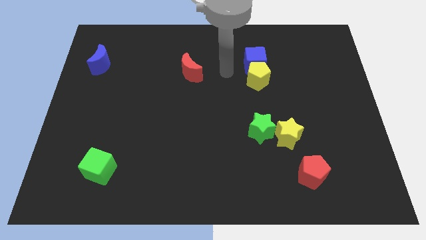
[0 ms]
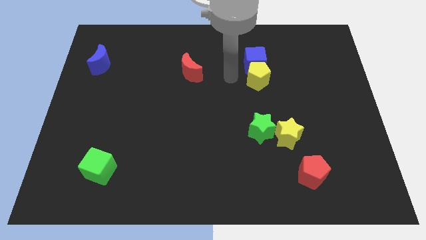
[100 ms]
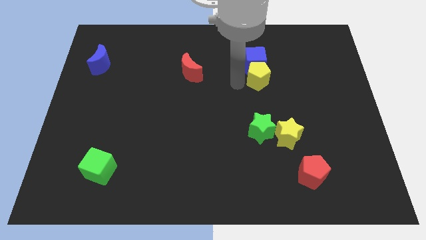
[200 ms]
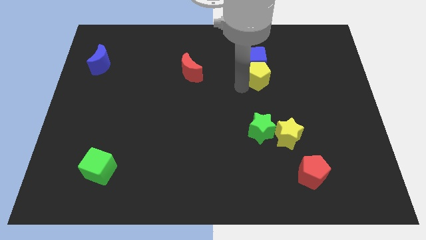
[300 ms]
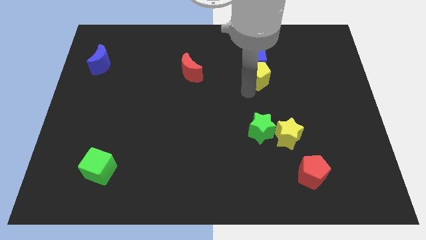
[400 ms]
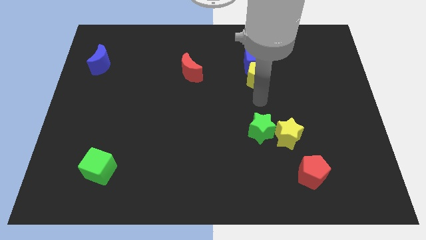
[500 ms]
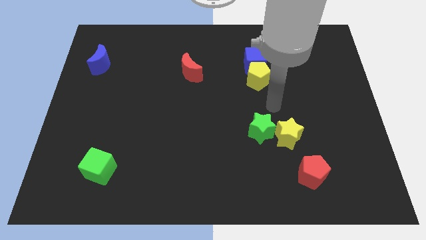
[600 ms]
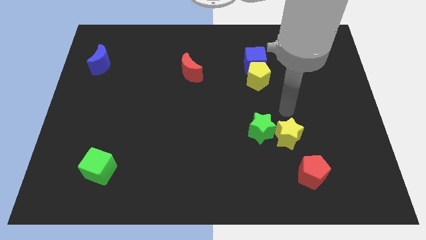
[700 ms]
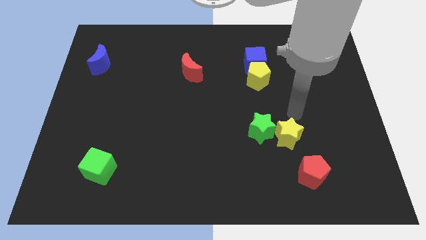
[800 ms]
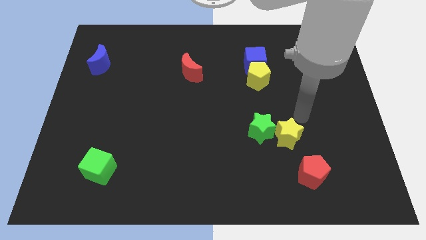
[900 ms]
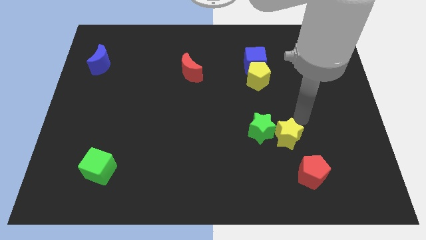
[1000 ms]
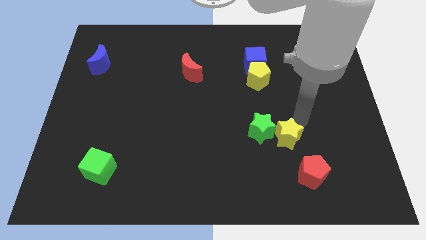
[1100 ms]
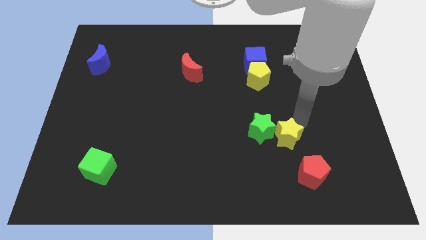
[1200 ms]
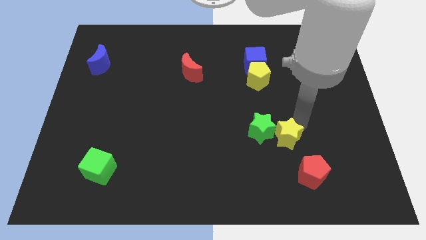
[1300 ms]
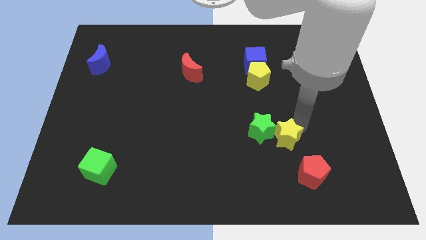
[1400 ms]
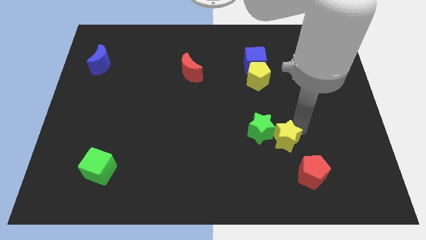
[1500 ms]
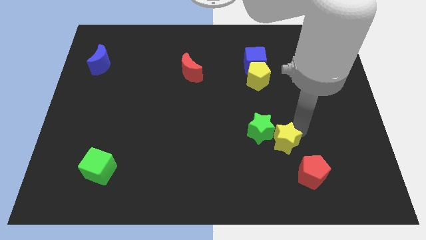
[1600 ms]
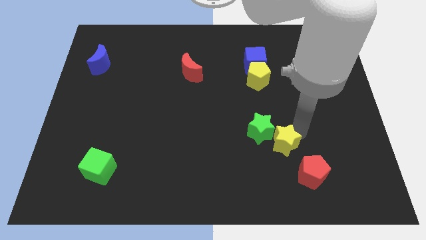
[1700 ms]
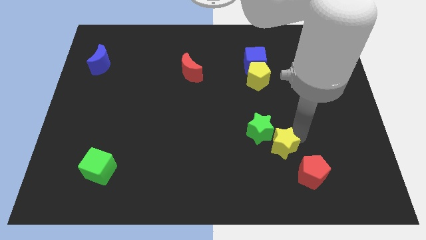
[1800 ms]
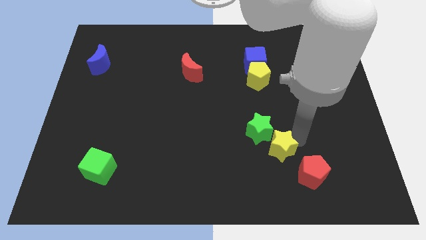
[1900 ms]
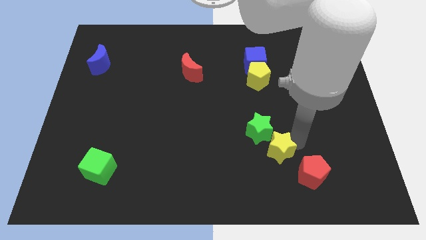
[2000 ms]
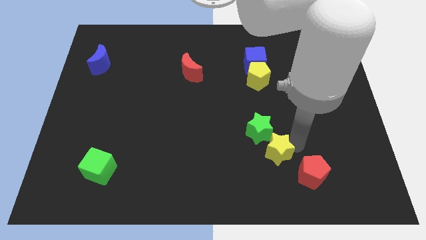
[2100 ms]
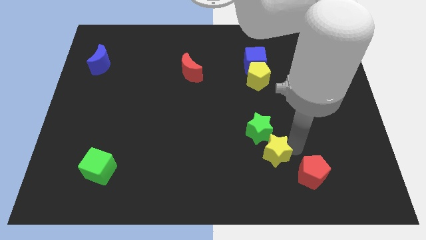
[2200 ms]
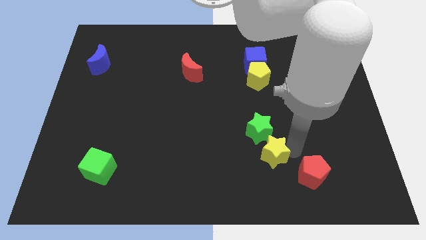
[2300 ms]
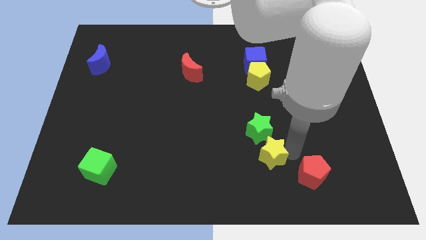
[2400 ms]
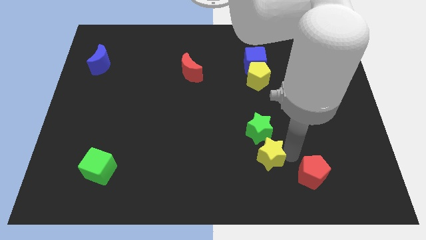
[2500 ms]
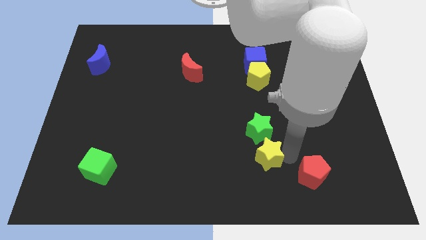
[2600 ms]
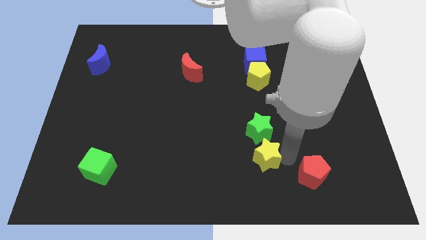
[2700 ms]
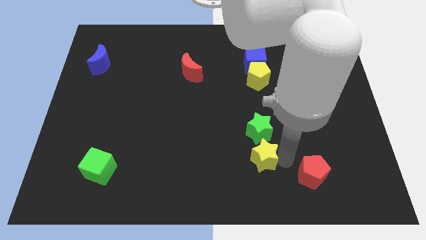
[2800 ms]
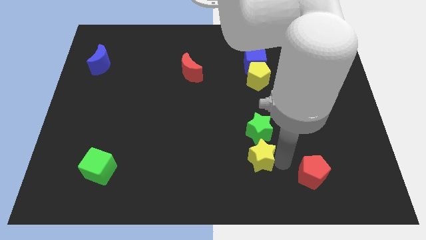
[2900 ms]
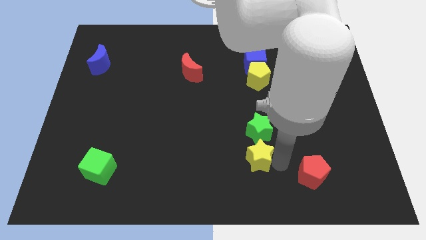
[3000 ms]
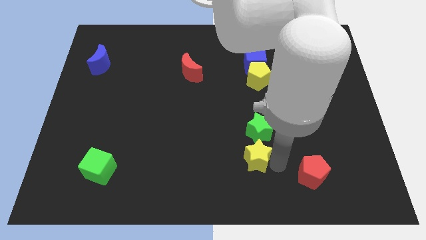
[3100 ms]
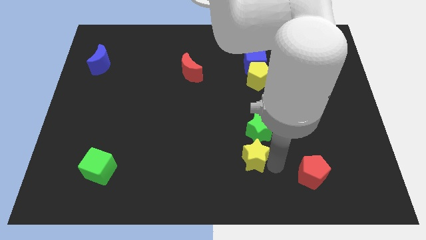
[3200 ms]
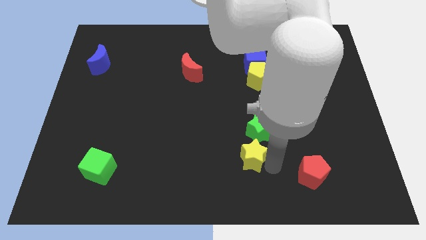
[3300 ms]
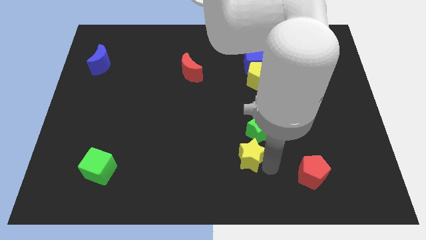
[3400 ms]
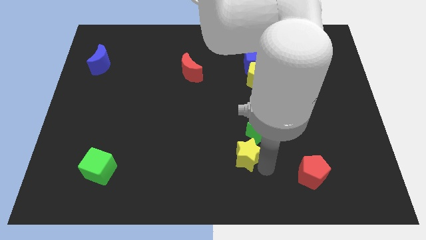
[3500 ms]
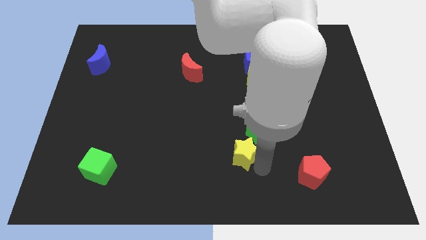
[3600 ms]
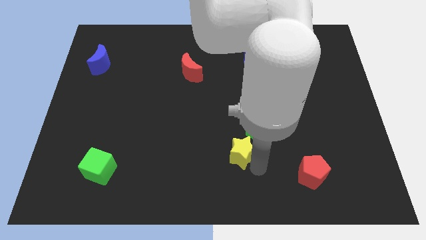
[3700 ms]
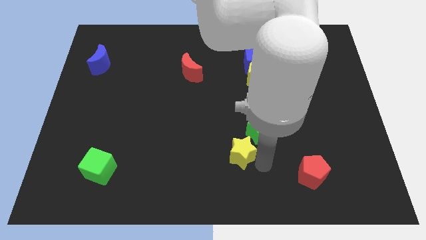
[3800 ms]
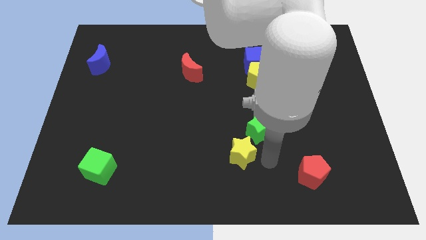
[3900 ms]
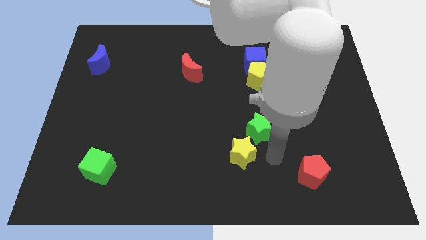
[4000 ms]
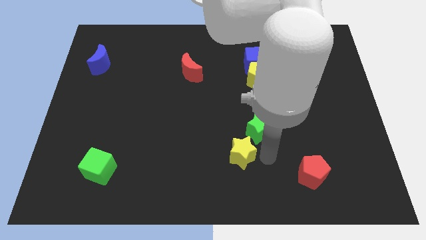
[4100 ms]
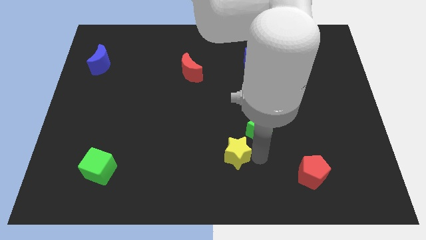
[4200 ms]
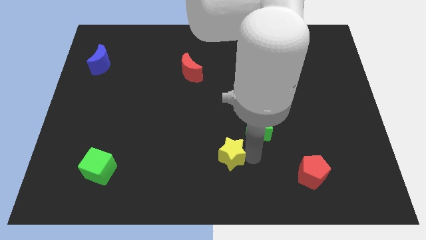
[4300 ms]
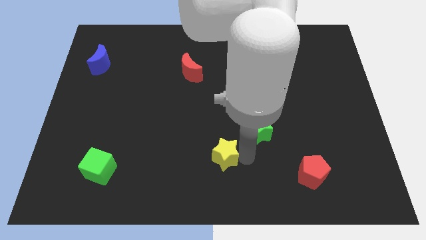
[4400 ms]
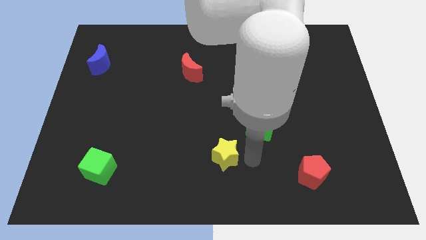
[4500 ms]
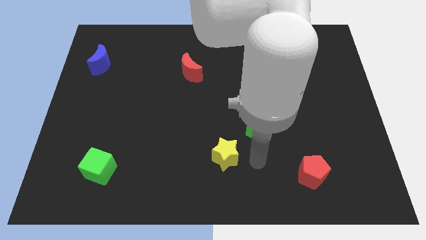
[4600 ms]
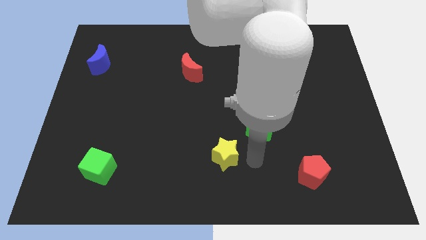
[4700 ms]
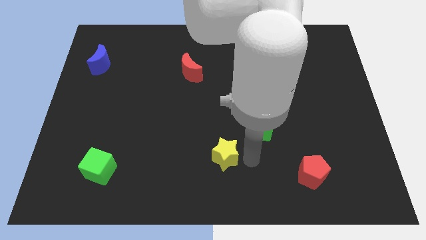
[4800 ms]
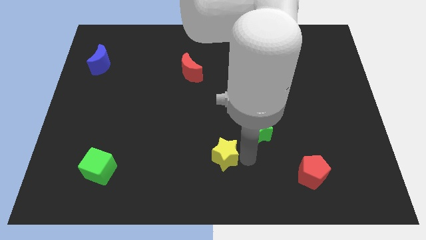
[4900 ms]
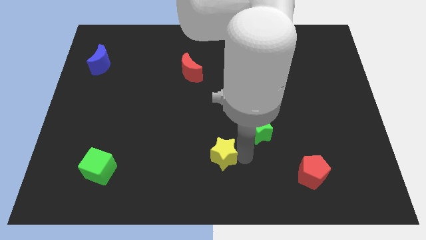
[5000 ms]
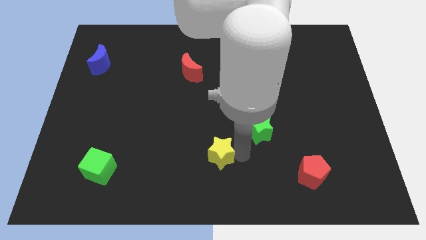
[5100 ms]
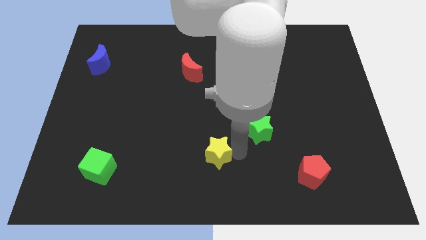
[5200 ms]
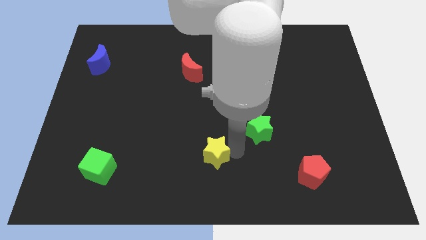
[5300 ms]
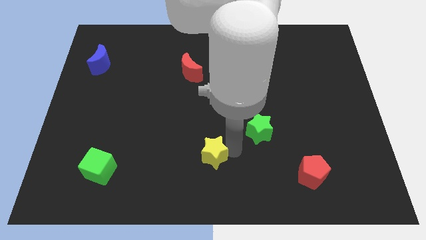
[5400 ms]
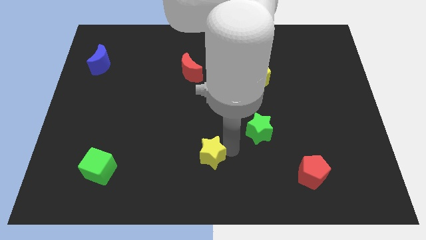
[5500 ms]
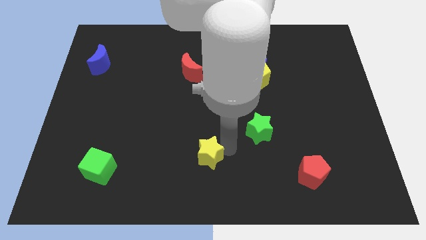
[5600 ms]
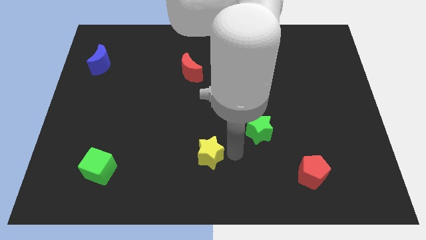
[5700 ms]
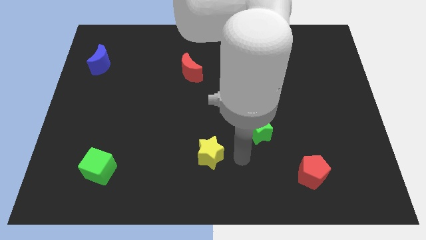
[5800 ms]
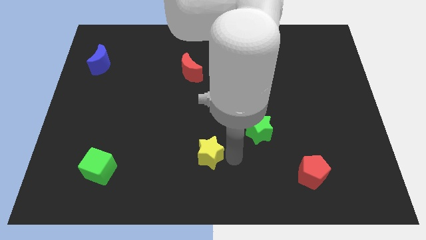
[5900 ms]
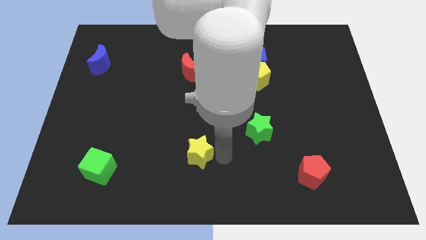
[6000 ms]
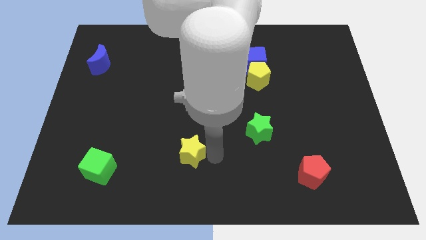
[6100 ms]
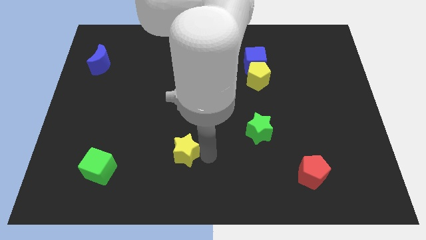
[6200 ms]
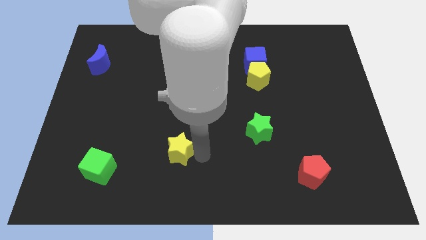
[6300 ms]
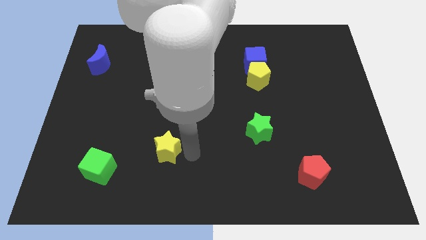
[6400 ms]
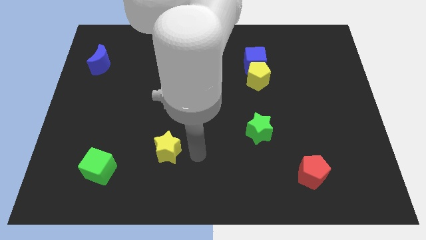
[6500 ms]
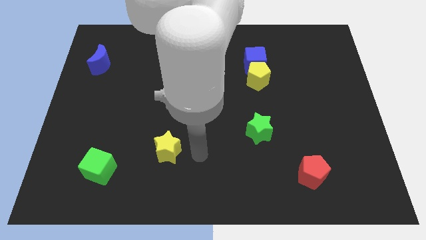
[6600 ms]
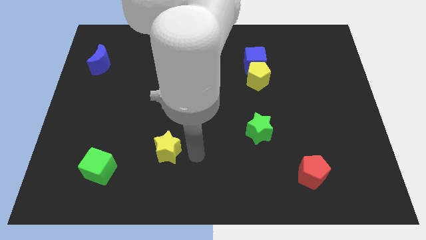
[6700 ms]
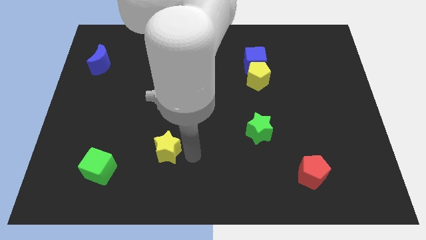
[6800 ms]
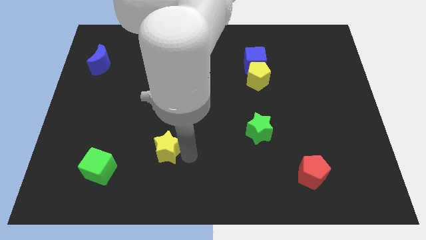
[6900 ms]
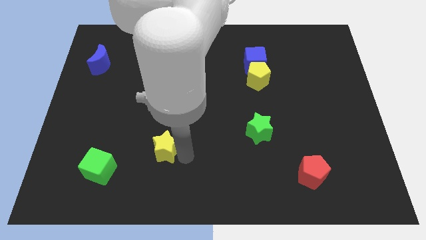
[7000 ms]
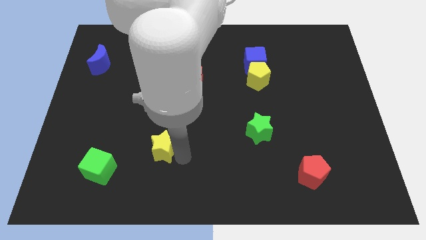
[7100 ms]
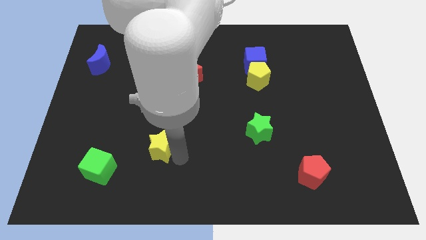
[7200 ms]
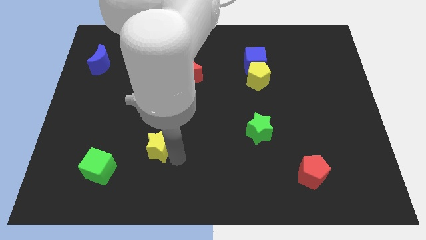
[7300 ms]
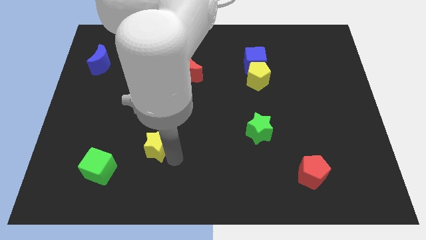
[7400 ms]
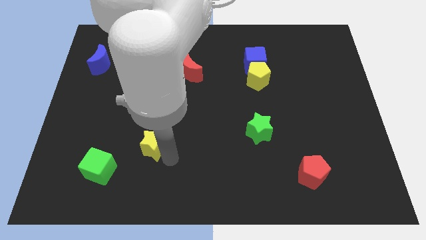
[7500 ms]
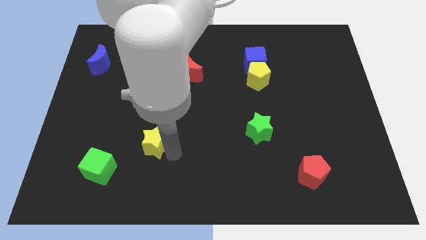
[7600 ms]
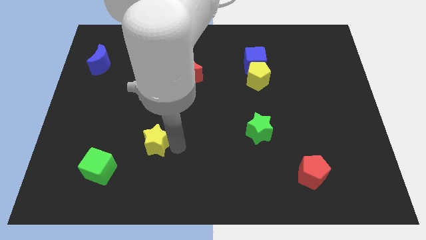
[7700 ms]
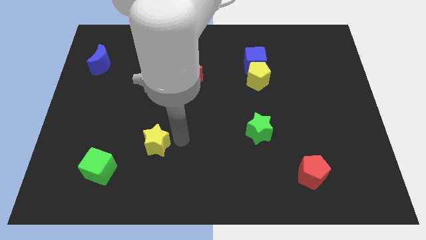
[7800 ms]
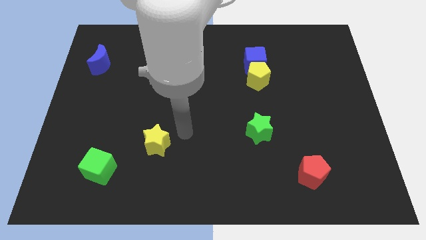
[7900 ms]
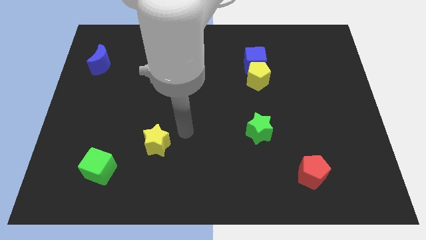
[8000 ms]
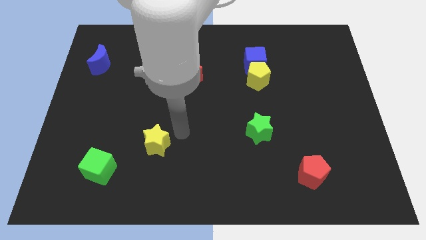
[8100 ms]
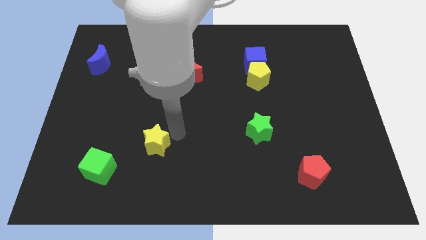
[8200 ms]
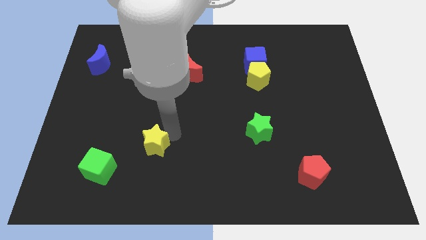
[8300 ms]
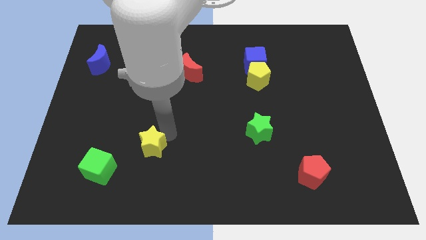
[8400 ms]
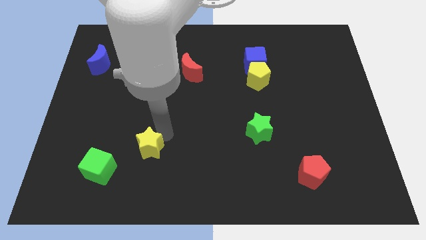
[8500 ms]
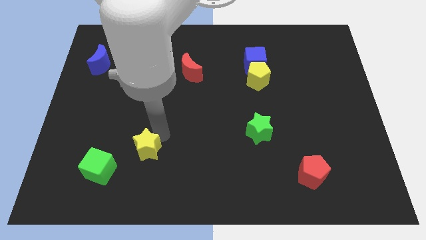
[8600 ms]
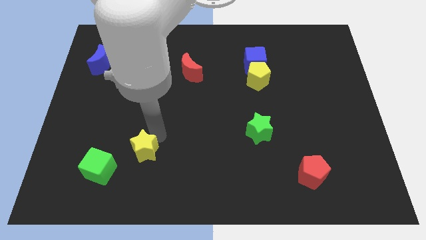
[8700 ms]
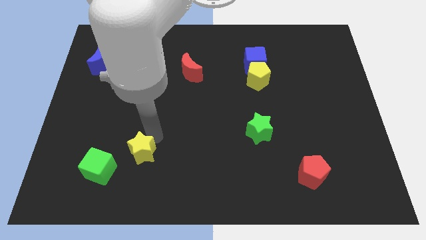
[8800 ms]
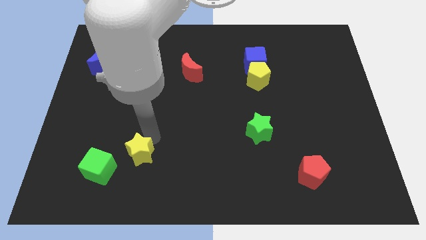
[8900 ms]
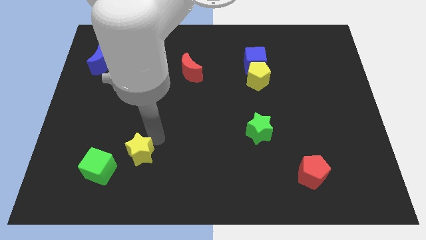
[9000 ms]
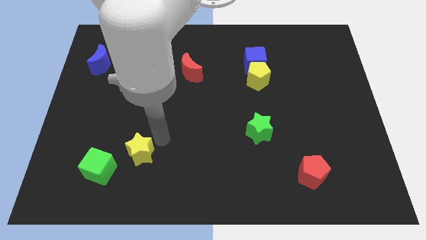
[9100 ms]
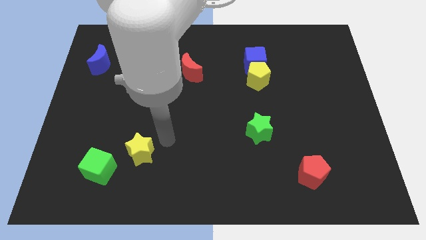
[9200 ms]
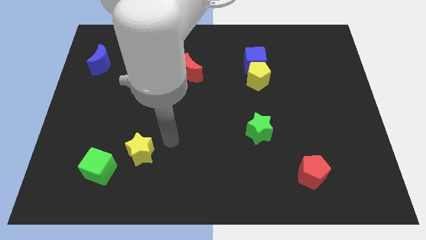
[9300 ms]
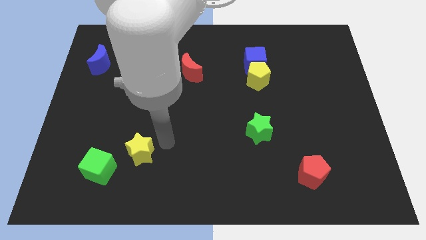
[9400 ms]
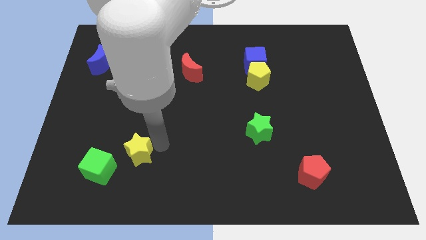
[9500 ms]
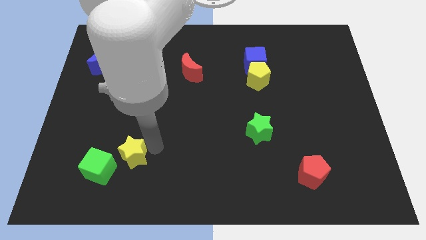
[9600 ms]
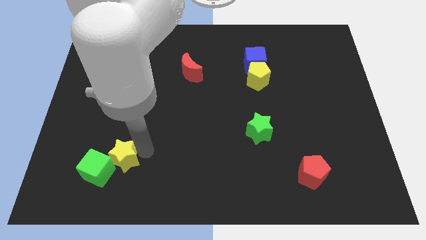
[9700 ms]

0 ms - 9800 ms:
push the yellow star next to the green cube
